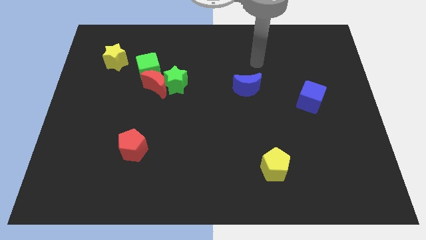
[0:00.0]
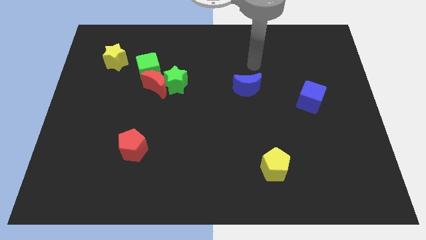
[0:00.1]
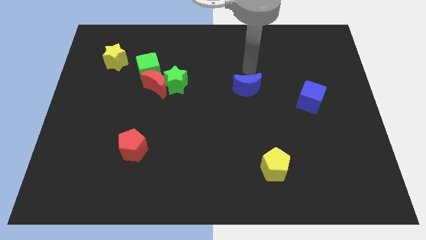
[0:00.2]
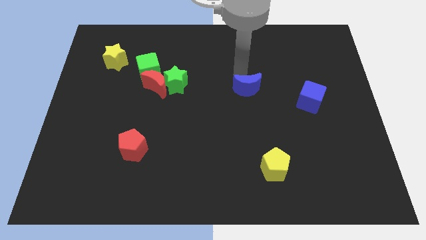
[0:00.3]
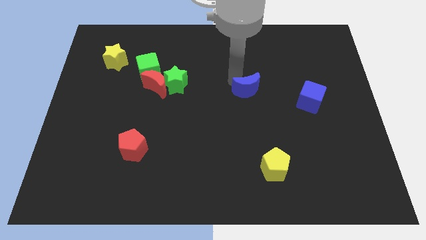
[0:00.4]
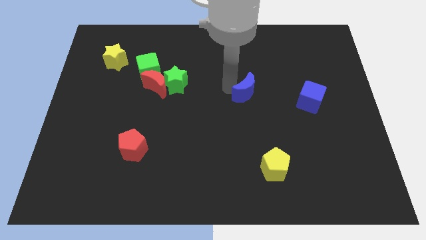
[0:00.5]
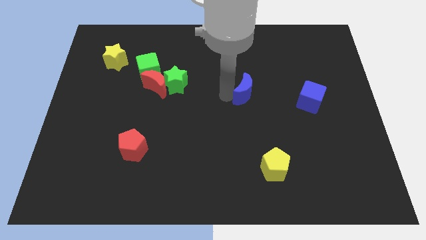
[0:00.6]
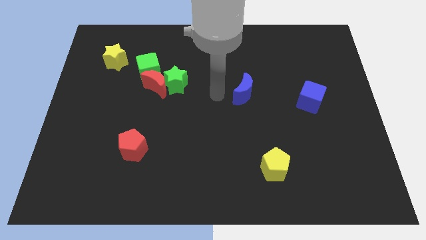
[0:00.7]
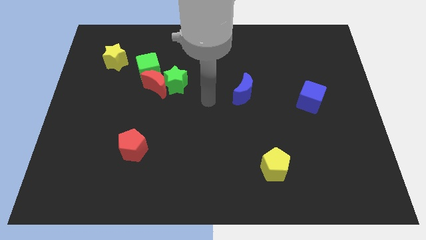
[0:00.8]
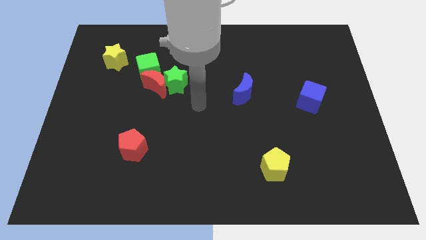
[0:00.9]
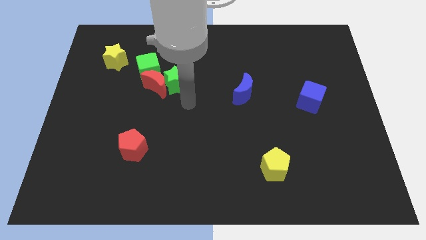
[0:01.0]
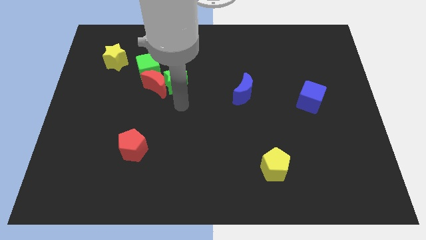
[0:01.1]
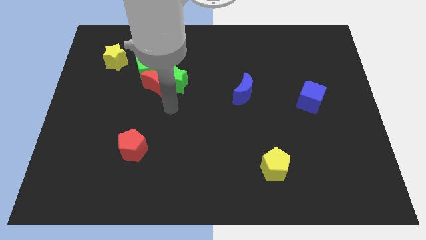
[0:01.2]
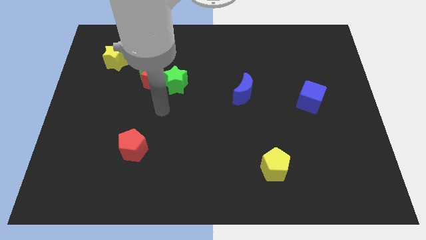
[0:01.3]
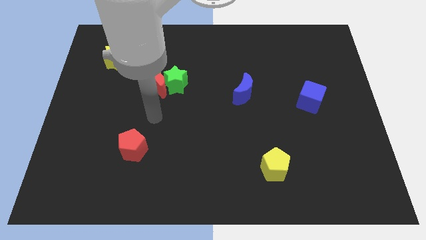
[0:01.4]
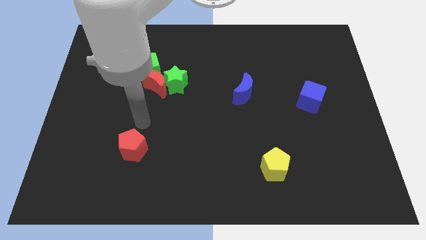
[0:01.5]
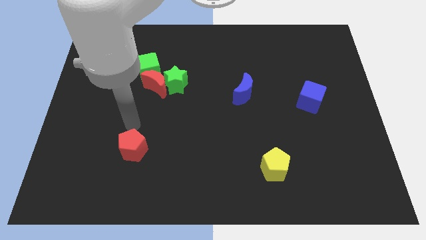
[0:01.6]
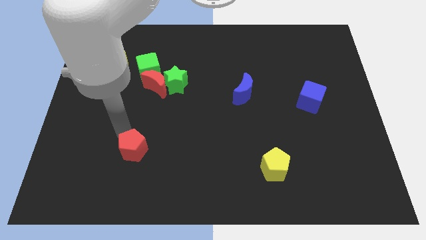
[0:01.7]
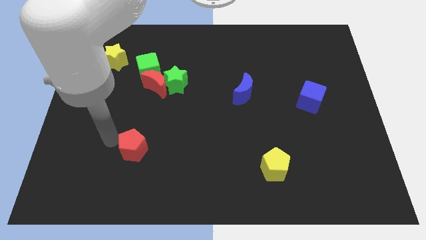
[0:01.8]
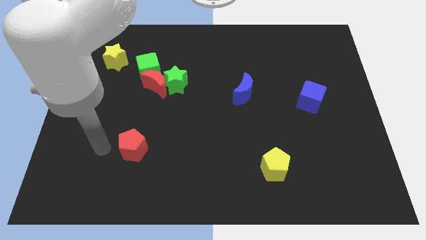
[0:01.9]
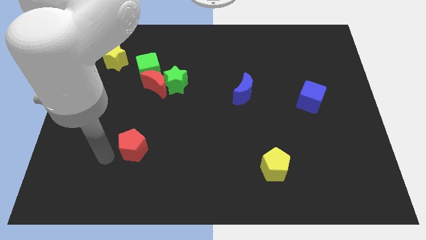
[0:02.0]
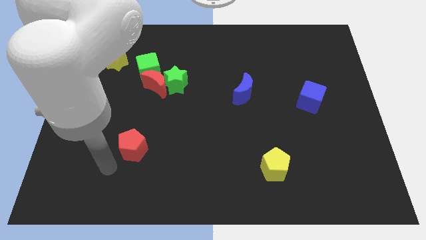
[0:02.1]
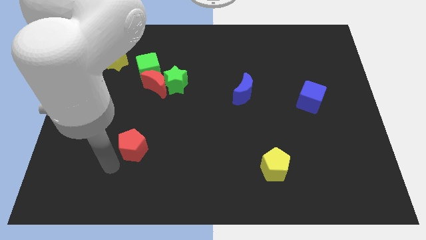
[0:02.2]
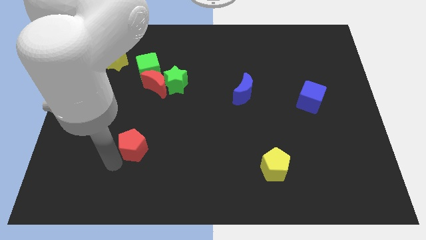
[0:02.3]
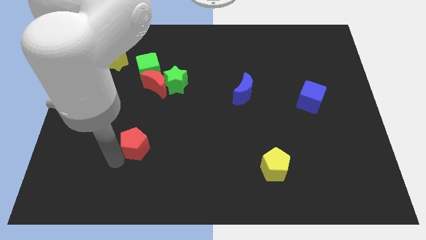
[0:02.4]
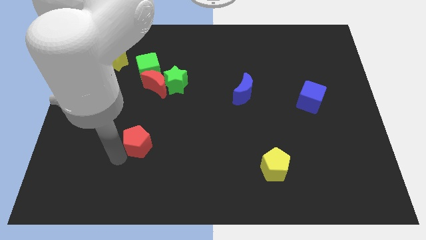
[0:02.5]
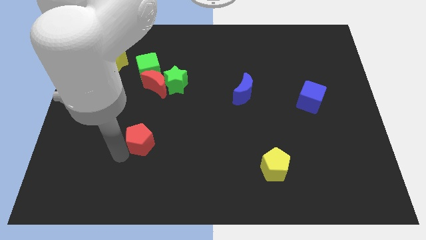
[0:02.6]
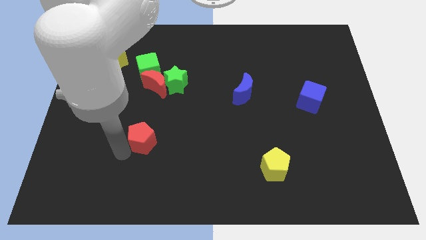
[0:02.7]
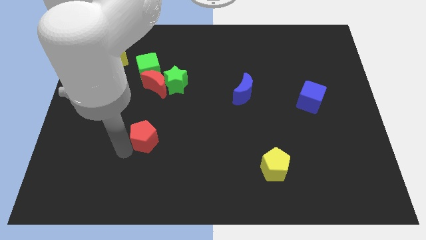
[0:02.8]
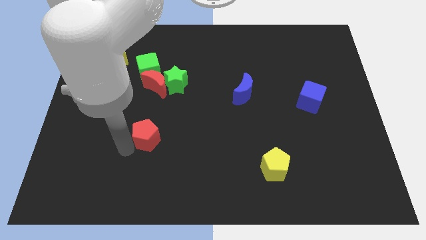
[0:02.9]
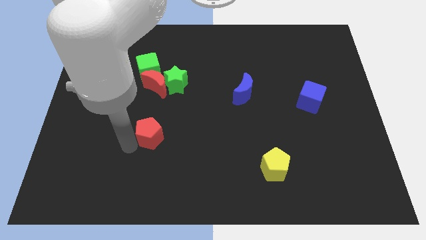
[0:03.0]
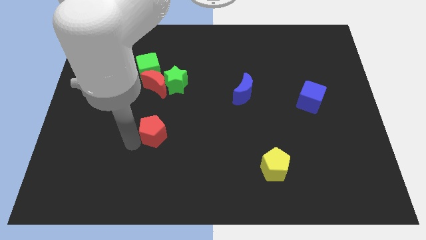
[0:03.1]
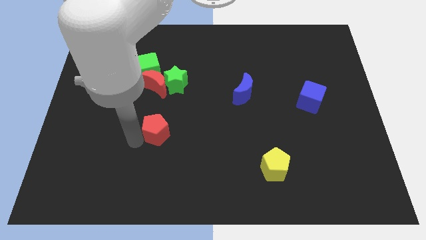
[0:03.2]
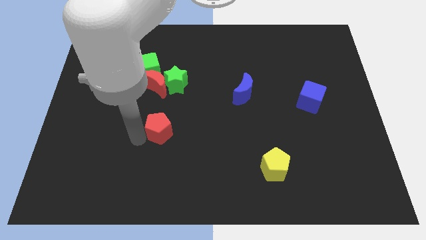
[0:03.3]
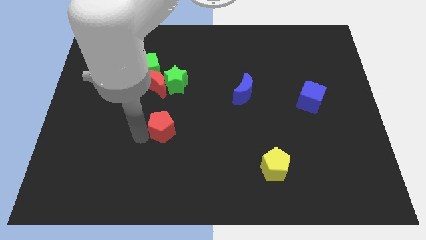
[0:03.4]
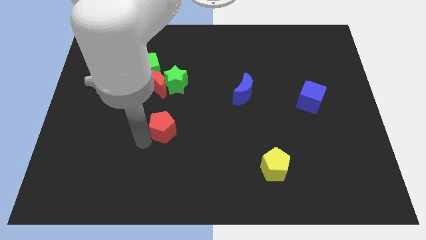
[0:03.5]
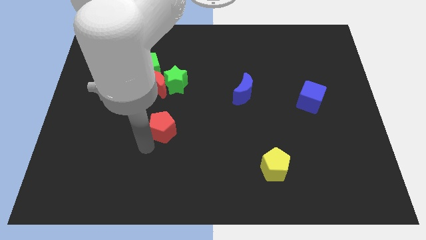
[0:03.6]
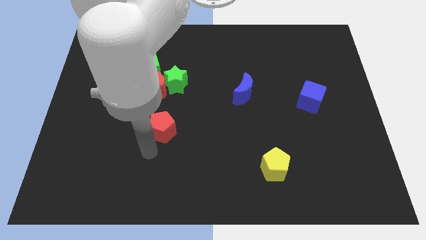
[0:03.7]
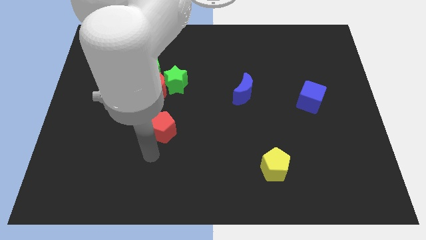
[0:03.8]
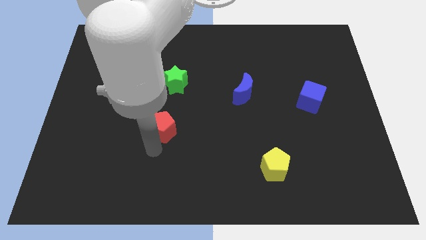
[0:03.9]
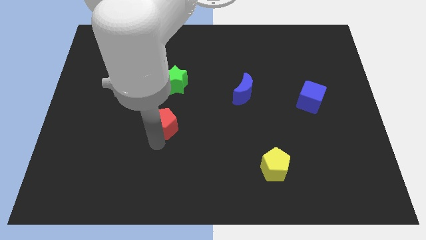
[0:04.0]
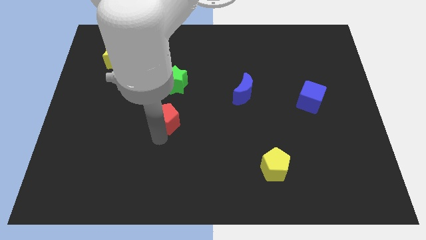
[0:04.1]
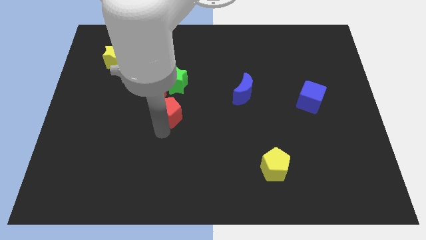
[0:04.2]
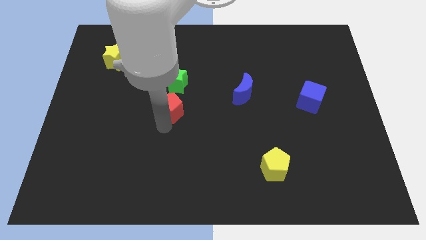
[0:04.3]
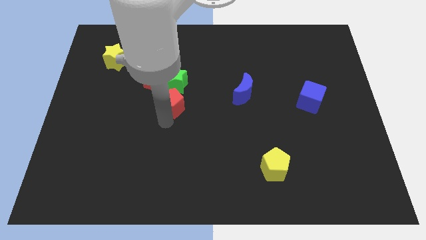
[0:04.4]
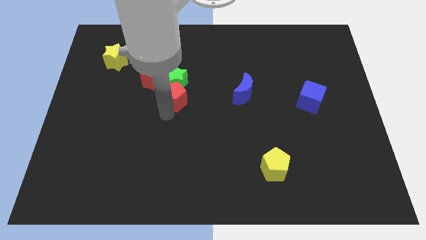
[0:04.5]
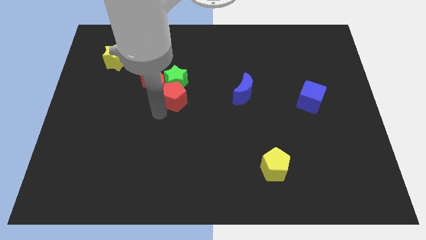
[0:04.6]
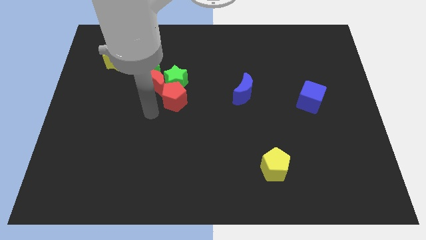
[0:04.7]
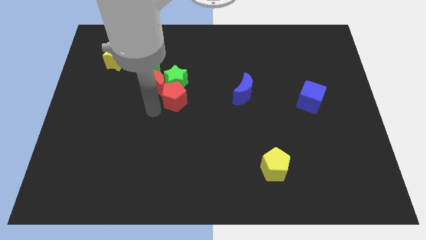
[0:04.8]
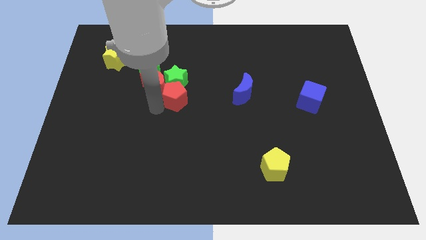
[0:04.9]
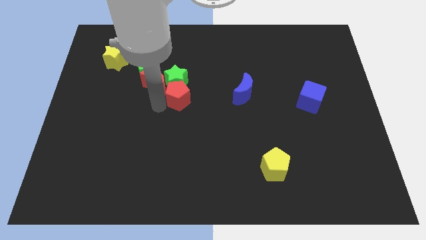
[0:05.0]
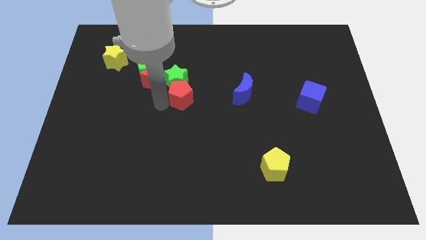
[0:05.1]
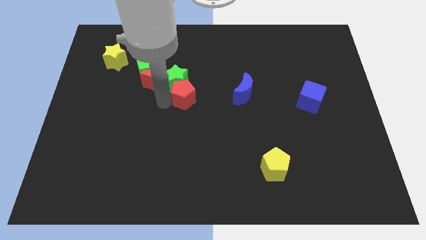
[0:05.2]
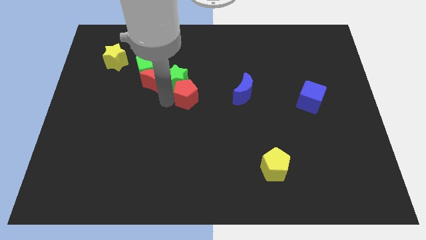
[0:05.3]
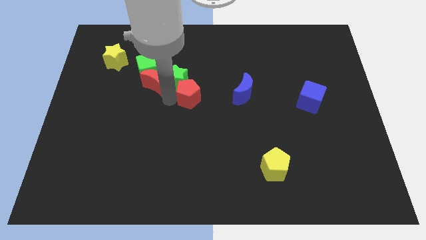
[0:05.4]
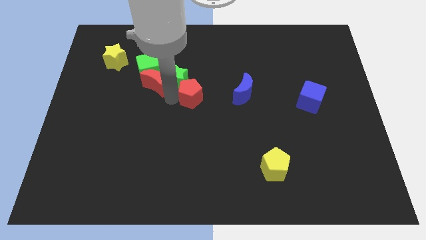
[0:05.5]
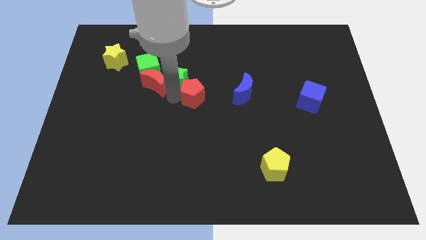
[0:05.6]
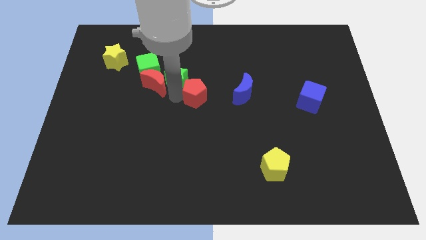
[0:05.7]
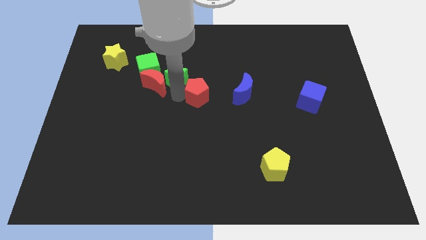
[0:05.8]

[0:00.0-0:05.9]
push the red pentagon diagonally upwards and right

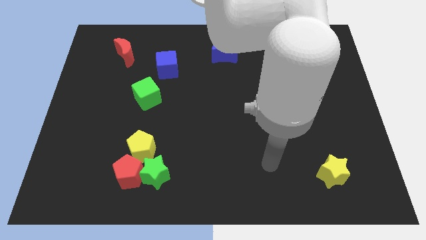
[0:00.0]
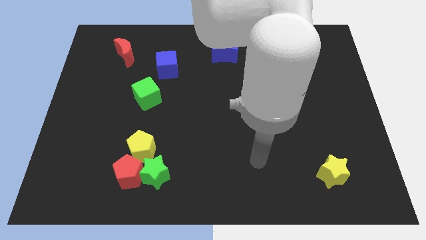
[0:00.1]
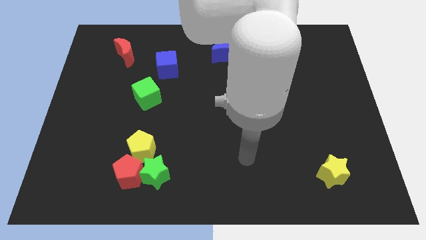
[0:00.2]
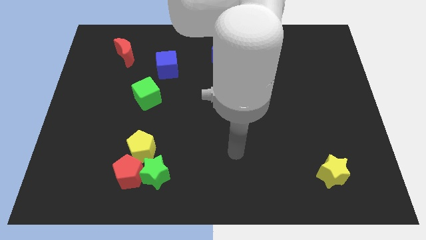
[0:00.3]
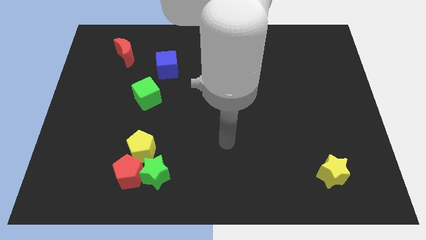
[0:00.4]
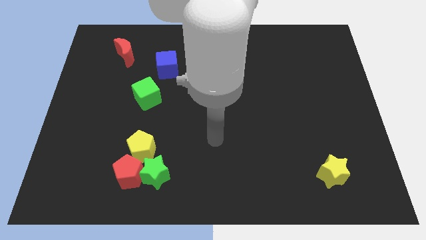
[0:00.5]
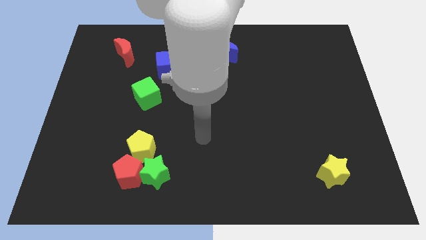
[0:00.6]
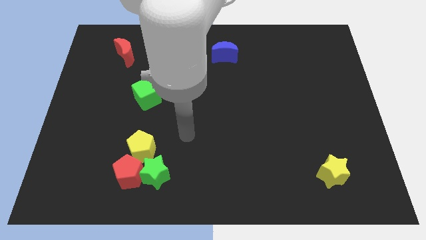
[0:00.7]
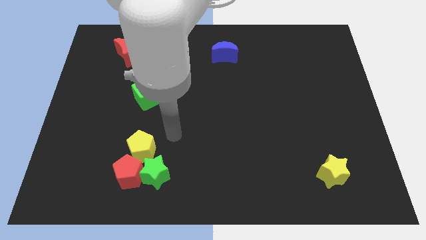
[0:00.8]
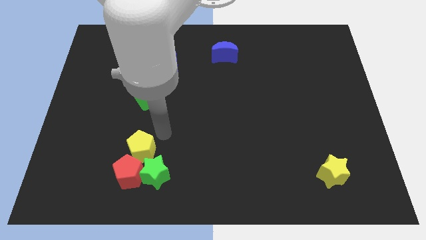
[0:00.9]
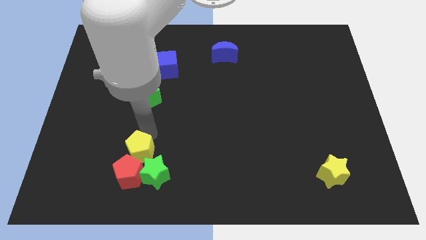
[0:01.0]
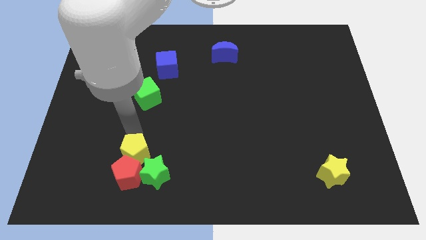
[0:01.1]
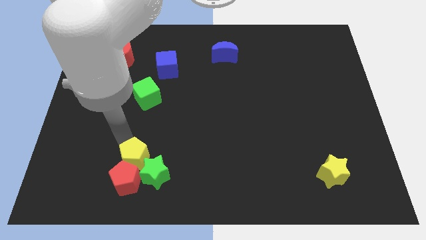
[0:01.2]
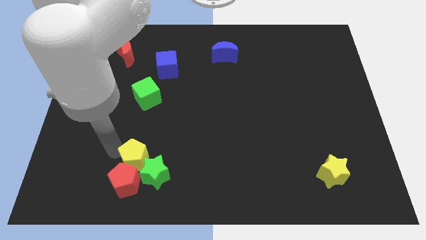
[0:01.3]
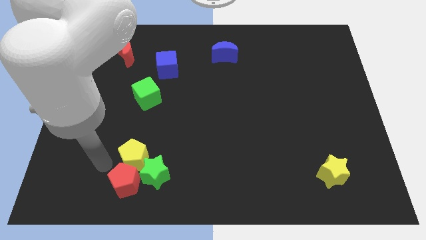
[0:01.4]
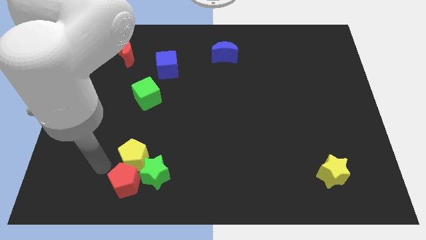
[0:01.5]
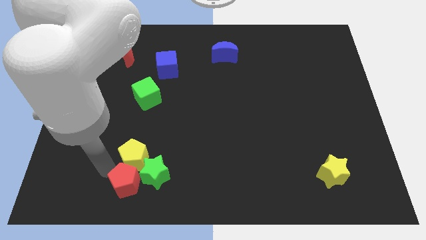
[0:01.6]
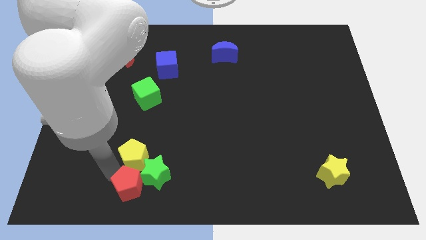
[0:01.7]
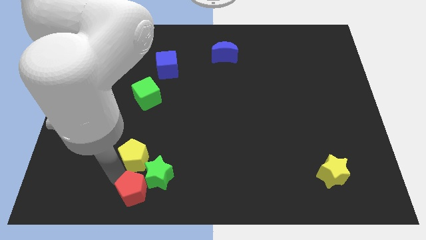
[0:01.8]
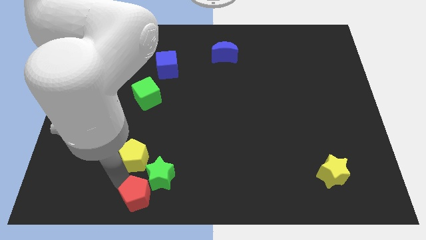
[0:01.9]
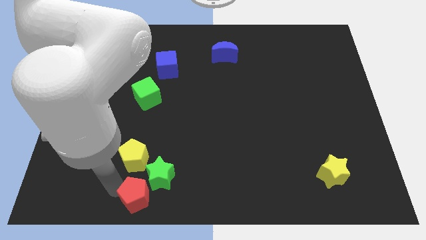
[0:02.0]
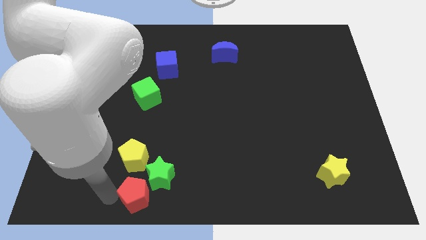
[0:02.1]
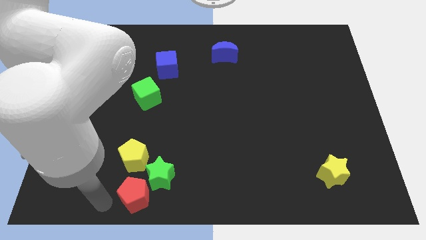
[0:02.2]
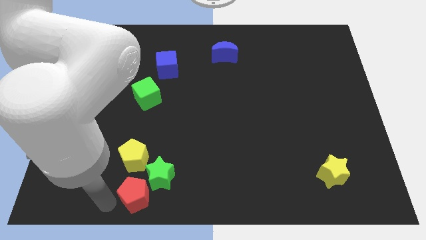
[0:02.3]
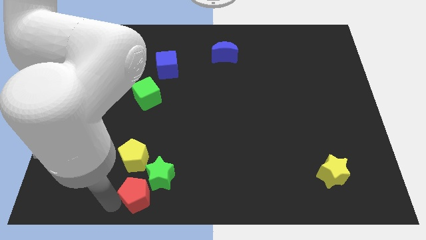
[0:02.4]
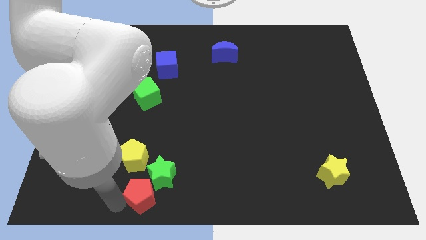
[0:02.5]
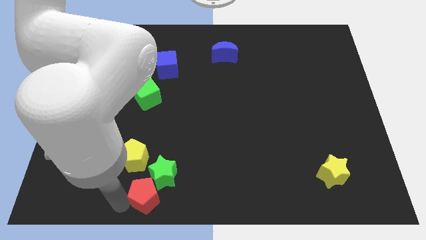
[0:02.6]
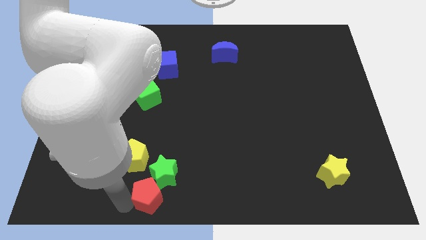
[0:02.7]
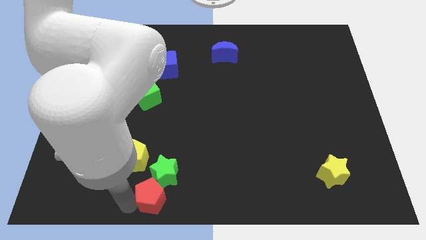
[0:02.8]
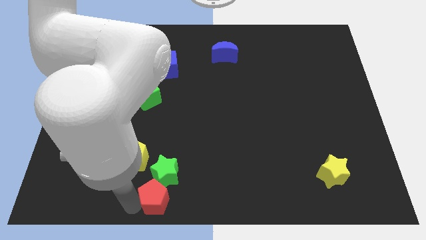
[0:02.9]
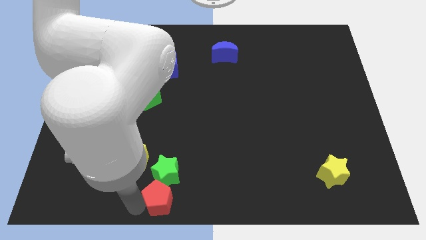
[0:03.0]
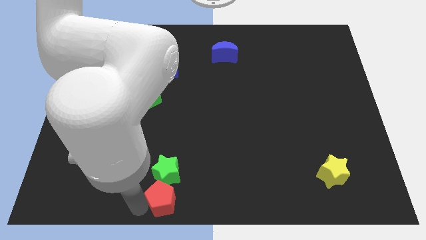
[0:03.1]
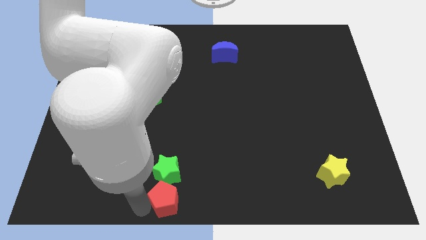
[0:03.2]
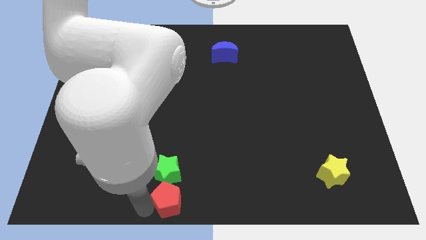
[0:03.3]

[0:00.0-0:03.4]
move the red pentagon to the right a little bit
